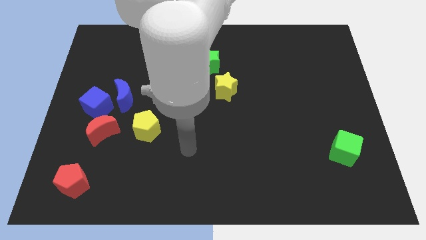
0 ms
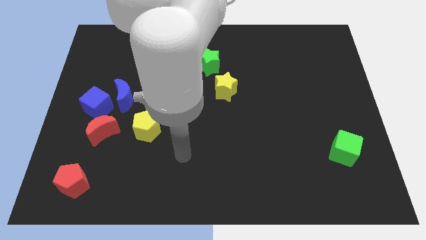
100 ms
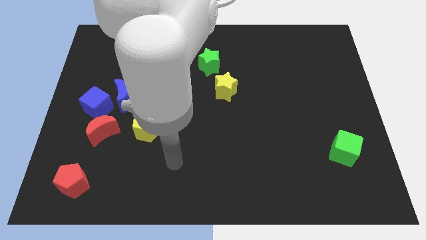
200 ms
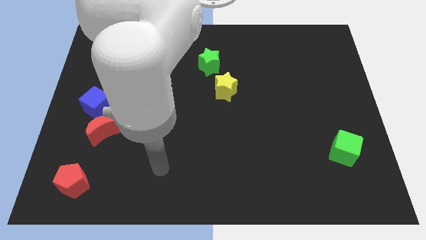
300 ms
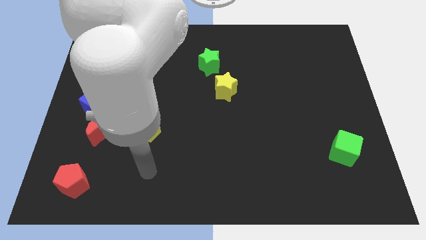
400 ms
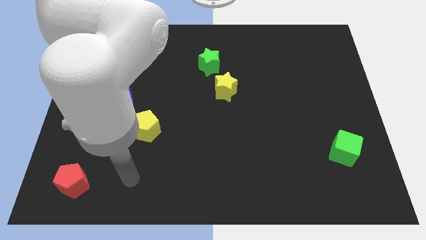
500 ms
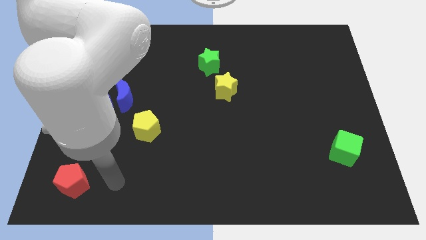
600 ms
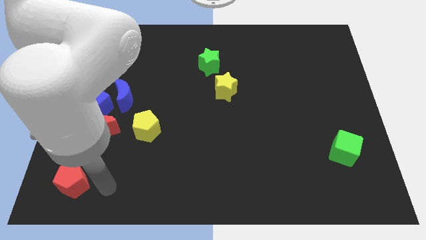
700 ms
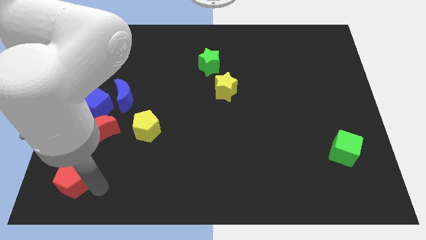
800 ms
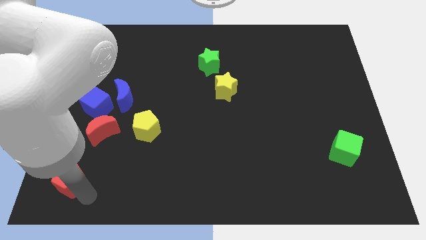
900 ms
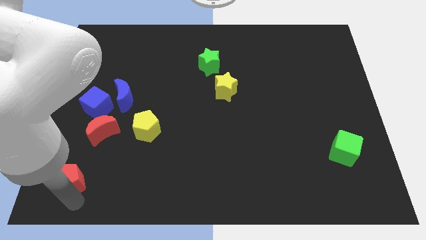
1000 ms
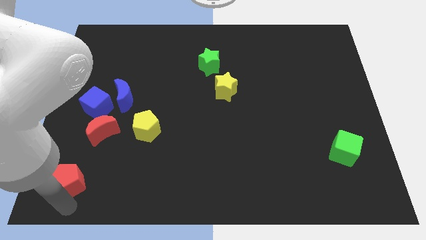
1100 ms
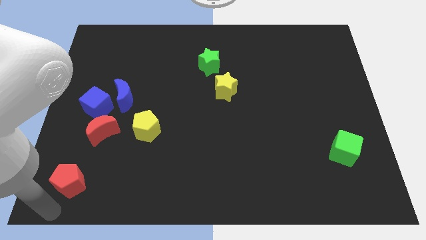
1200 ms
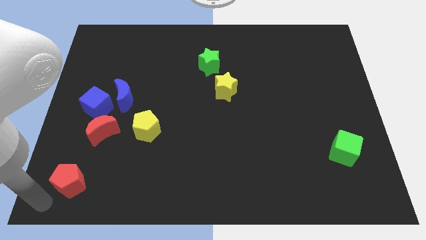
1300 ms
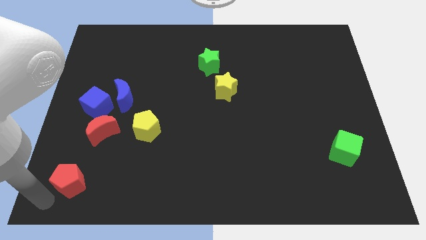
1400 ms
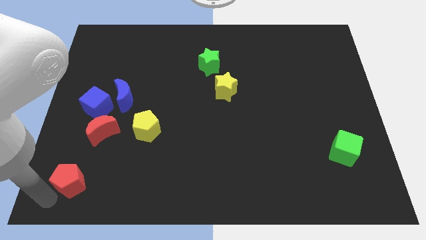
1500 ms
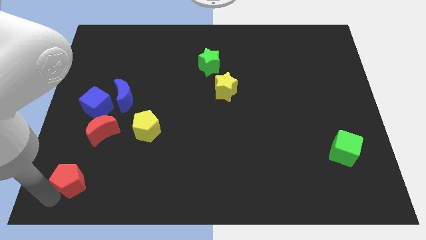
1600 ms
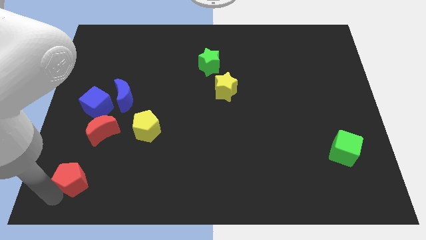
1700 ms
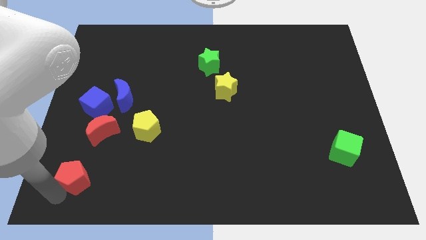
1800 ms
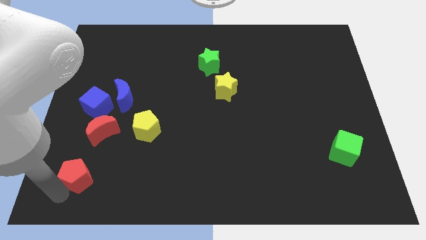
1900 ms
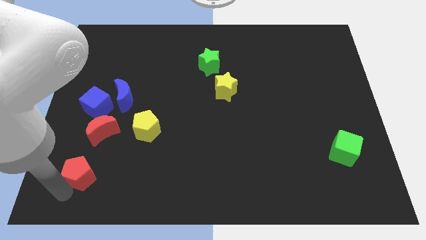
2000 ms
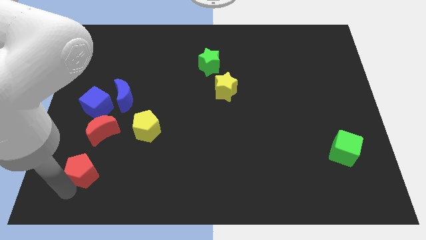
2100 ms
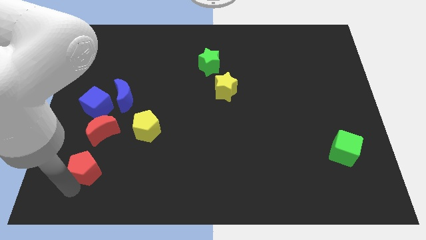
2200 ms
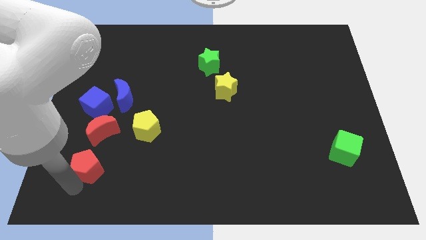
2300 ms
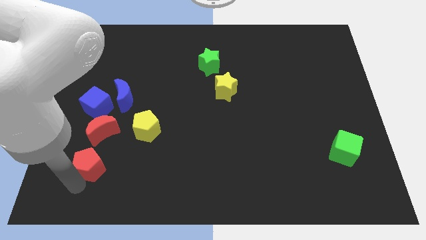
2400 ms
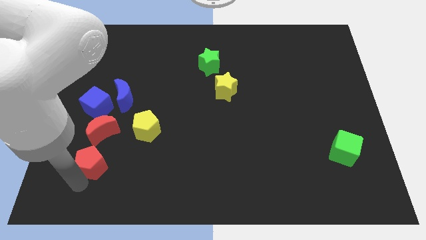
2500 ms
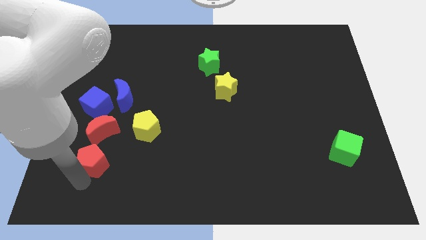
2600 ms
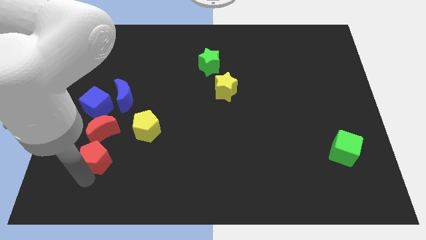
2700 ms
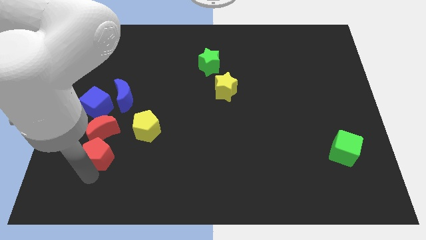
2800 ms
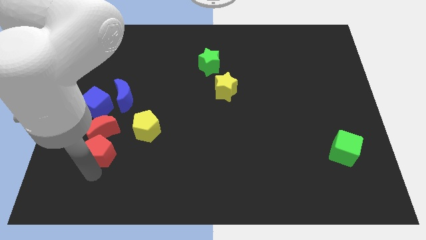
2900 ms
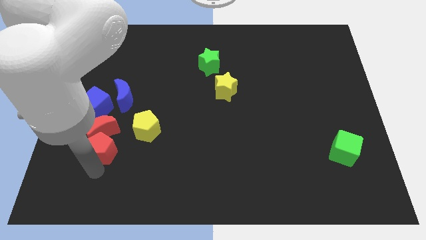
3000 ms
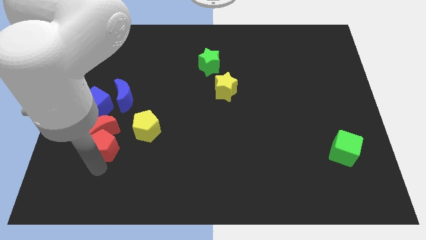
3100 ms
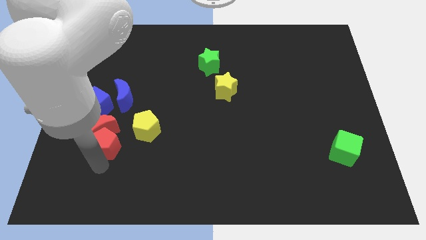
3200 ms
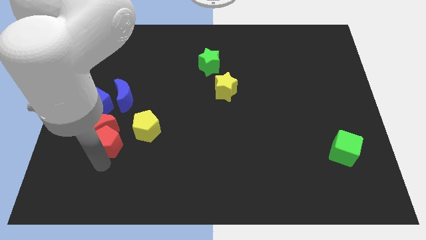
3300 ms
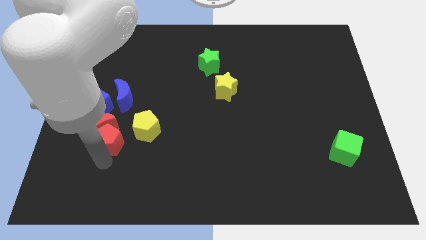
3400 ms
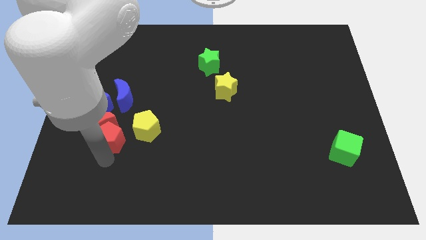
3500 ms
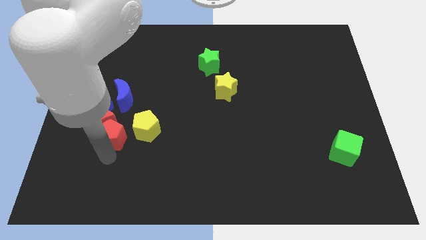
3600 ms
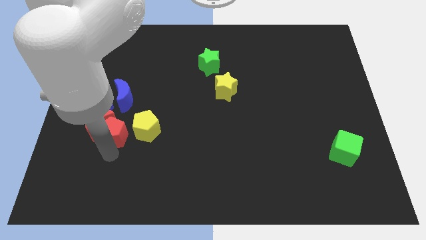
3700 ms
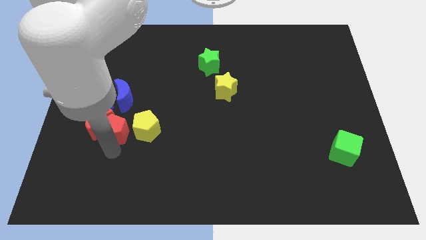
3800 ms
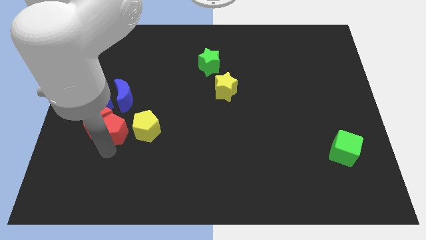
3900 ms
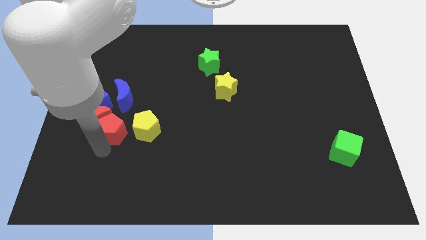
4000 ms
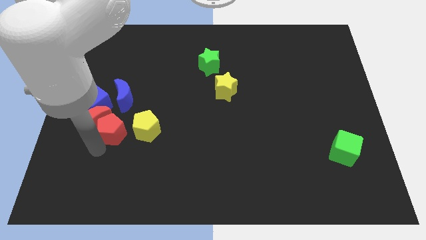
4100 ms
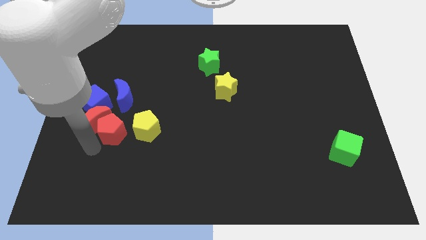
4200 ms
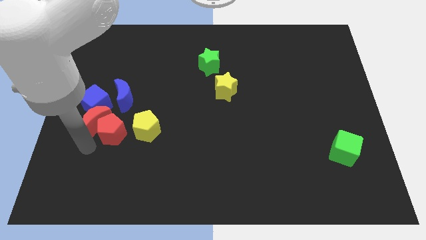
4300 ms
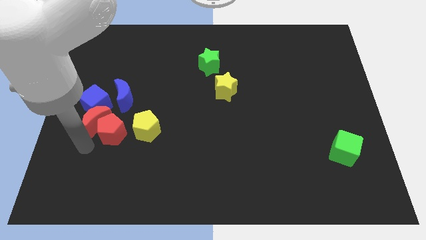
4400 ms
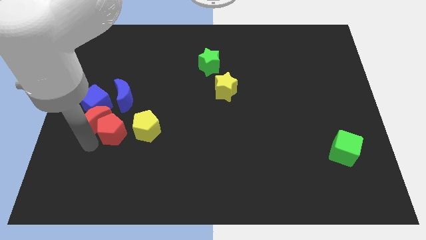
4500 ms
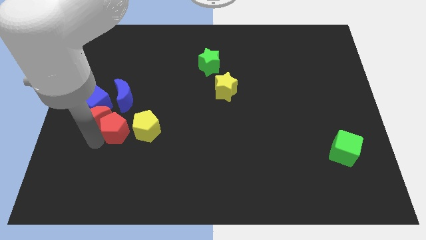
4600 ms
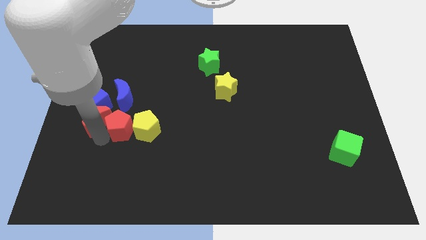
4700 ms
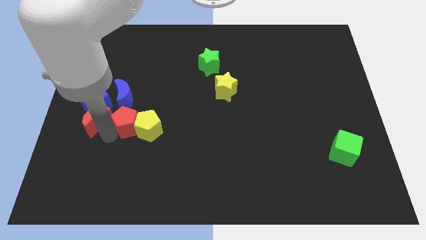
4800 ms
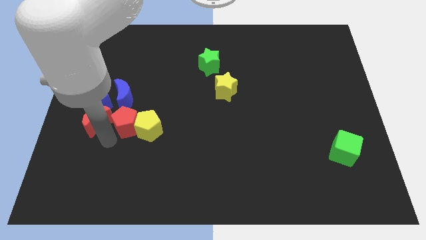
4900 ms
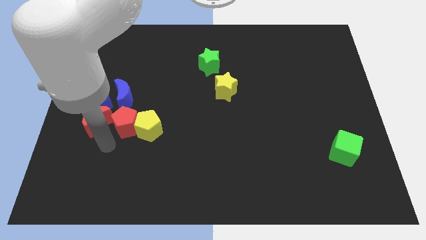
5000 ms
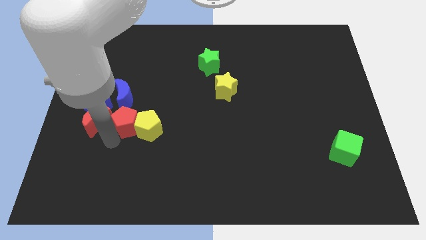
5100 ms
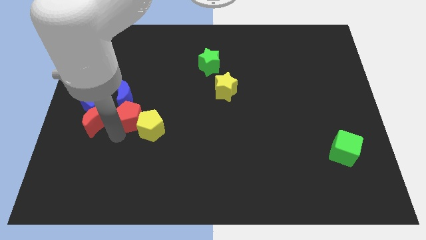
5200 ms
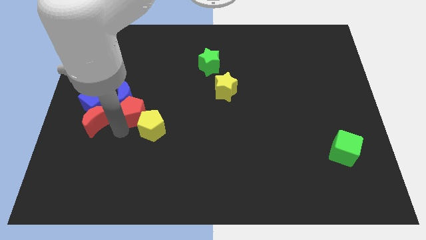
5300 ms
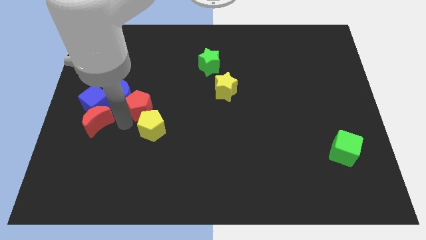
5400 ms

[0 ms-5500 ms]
push the red pentagon diagonally upwards and right

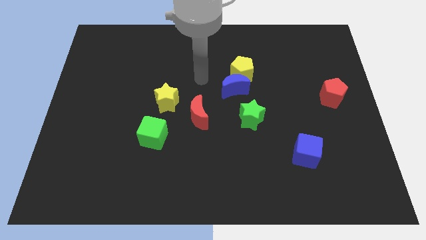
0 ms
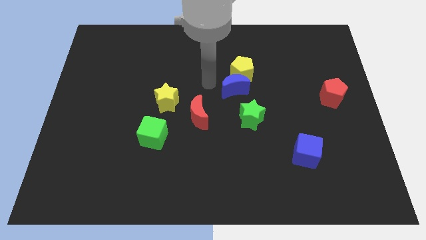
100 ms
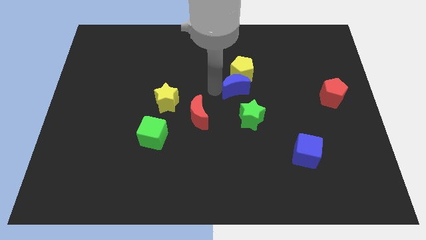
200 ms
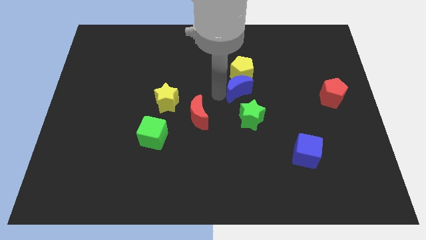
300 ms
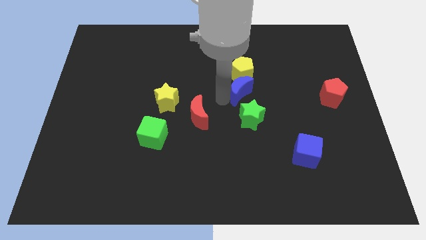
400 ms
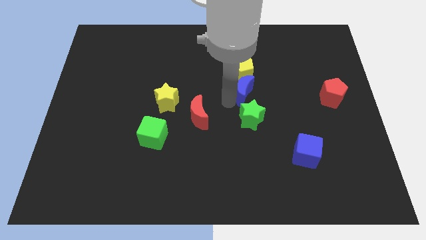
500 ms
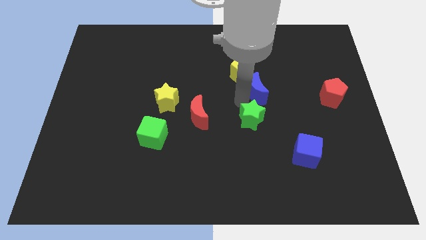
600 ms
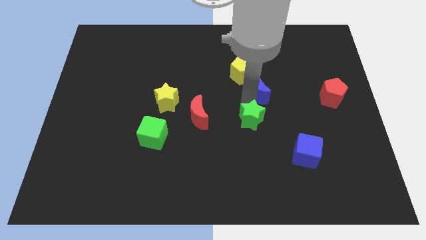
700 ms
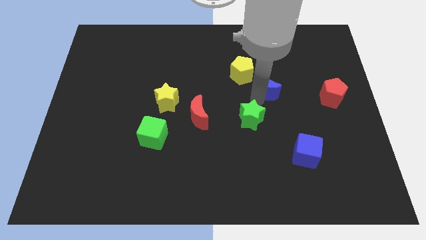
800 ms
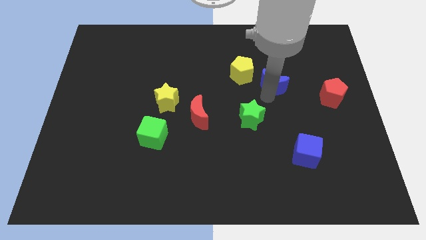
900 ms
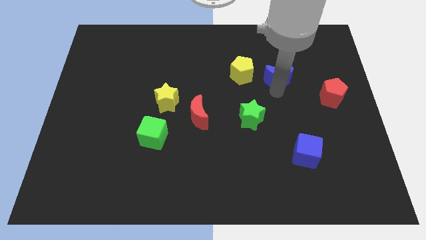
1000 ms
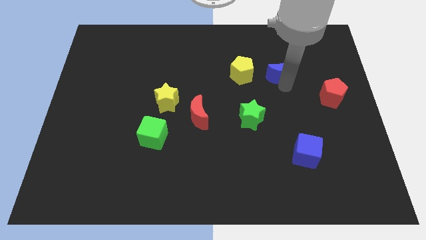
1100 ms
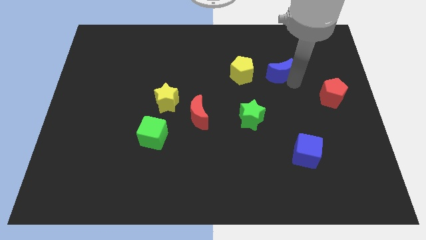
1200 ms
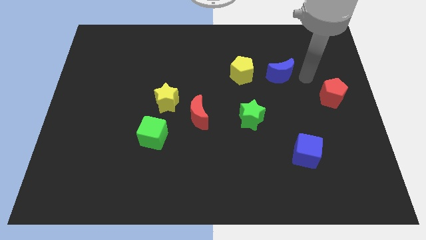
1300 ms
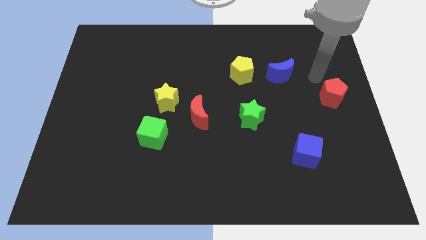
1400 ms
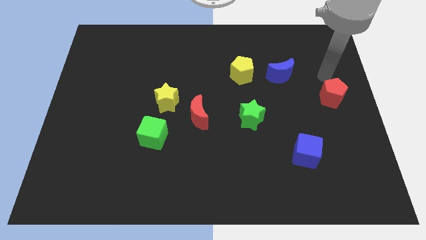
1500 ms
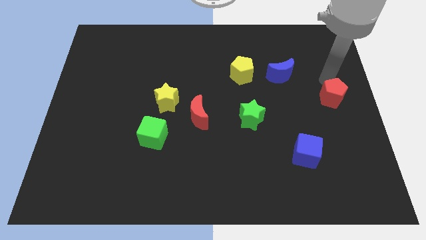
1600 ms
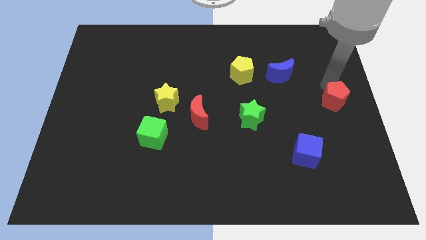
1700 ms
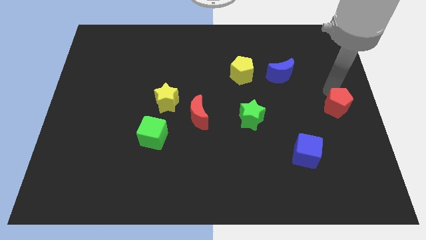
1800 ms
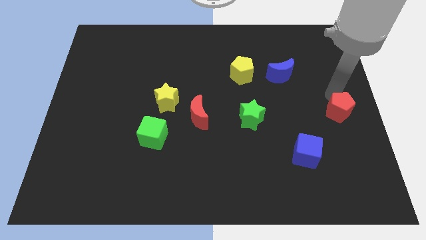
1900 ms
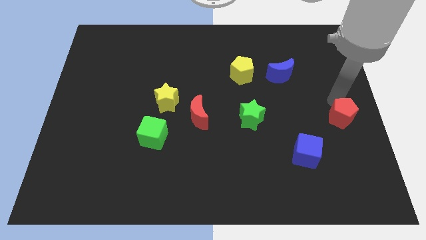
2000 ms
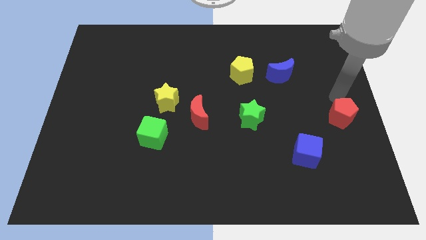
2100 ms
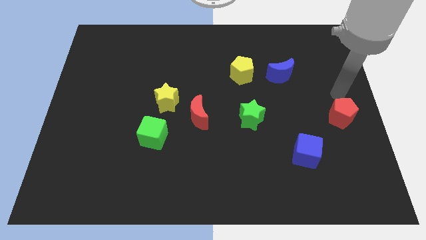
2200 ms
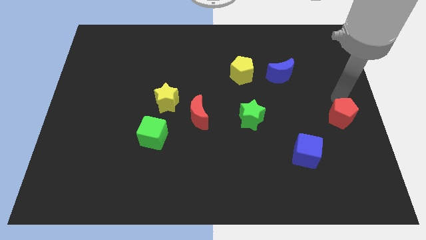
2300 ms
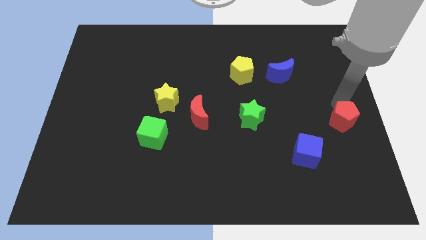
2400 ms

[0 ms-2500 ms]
push the red pentagon downwards somewhat

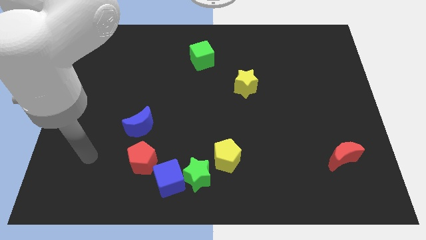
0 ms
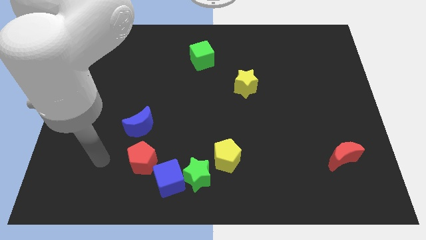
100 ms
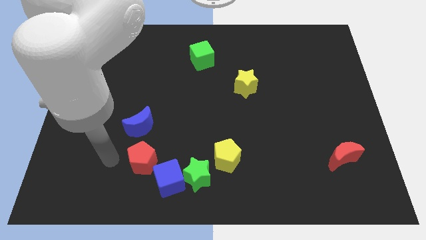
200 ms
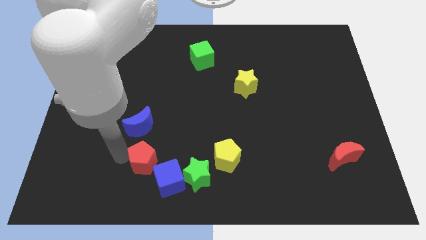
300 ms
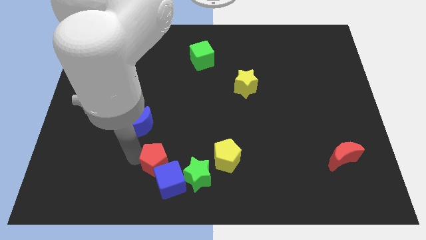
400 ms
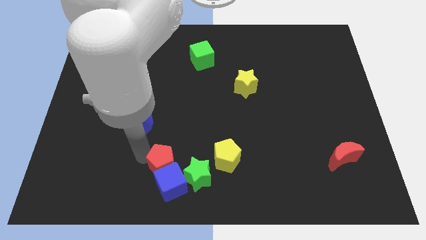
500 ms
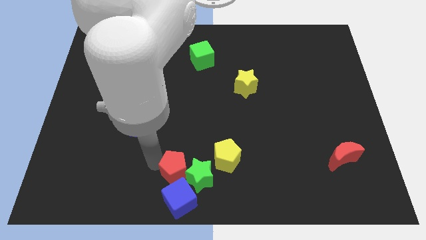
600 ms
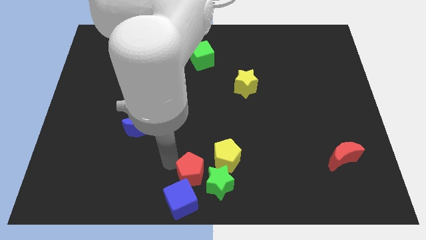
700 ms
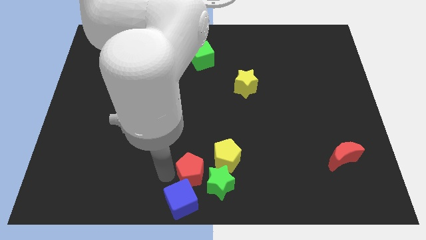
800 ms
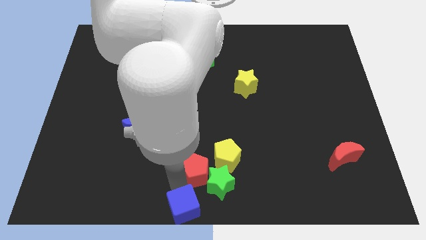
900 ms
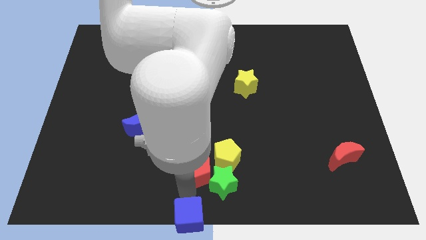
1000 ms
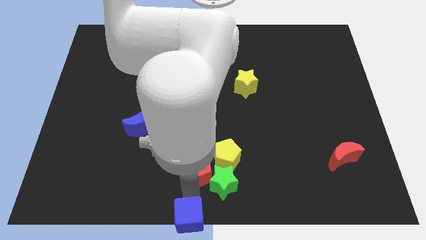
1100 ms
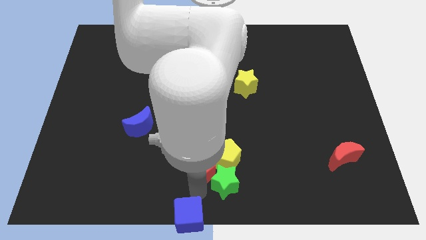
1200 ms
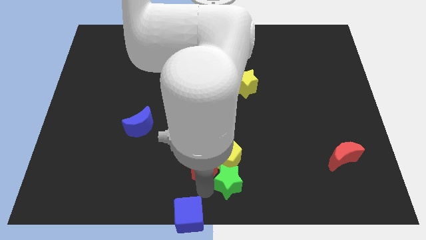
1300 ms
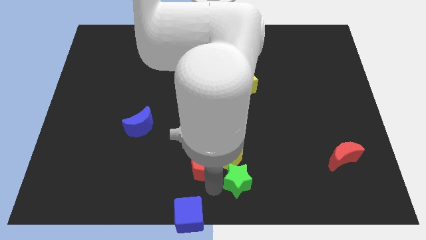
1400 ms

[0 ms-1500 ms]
slightly slide the green star to the right
